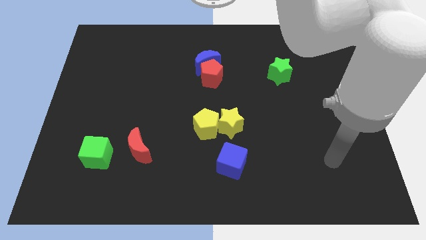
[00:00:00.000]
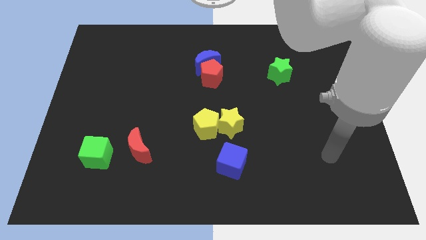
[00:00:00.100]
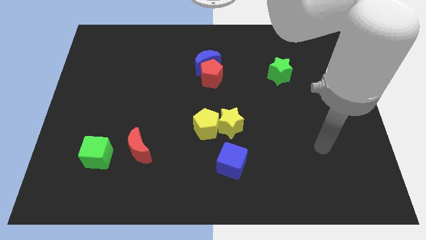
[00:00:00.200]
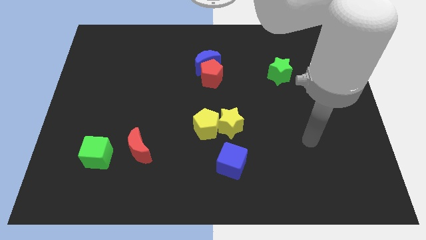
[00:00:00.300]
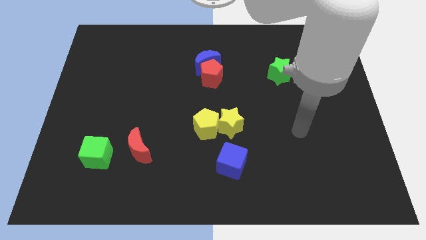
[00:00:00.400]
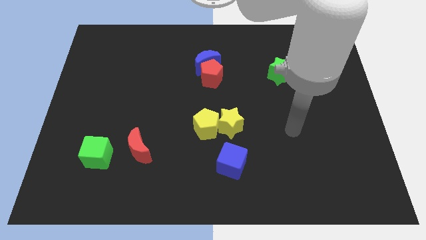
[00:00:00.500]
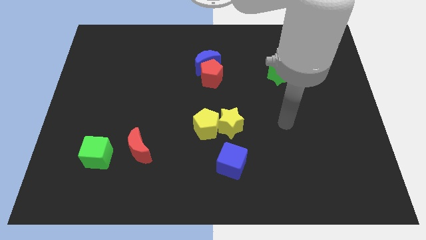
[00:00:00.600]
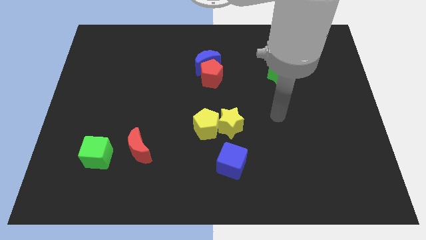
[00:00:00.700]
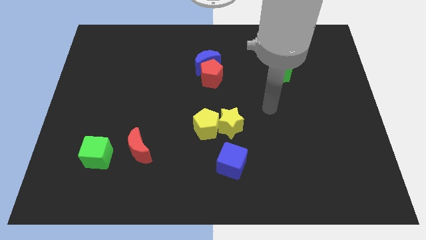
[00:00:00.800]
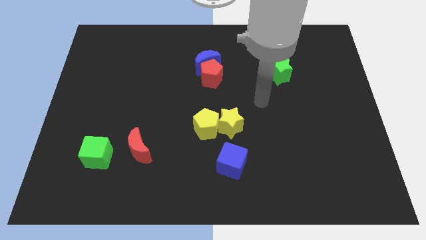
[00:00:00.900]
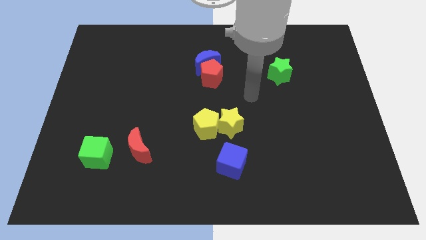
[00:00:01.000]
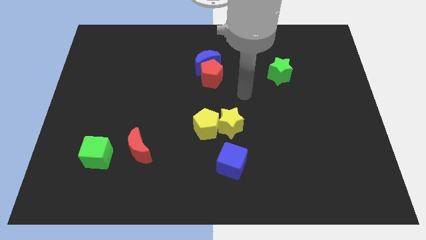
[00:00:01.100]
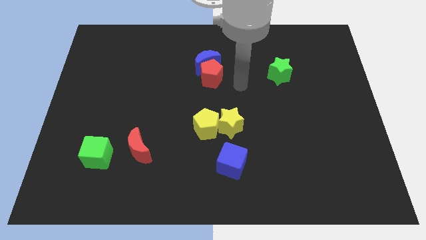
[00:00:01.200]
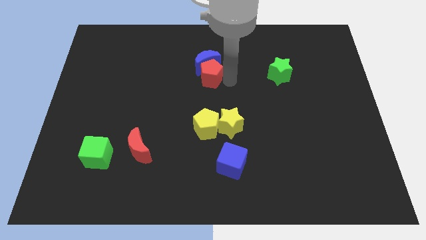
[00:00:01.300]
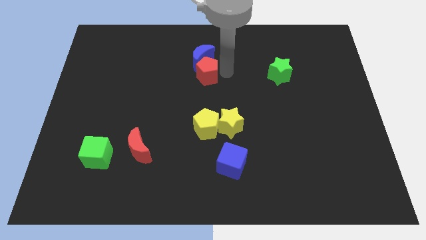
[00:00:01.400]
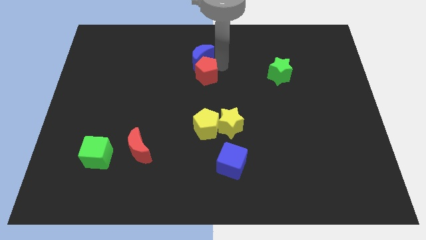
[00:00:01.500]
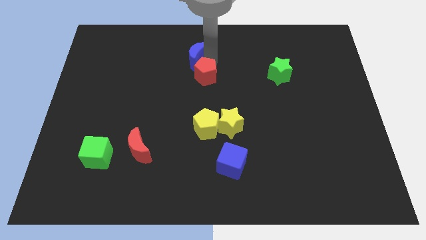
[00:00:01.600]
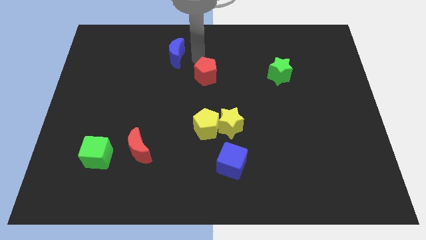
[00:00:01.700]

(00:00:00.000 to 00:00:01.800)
separate the red pentagon from the blue moon

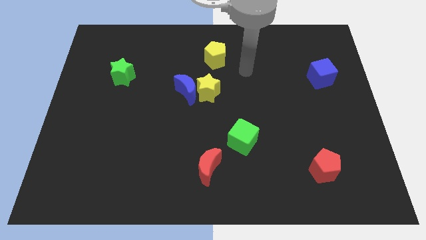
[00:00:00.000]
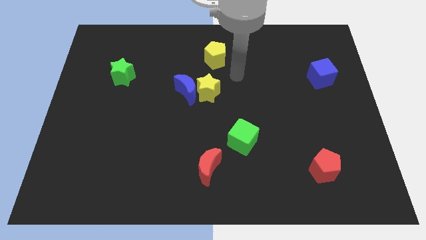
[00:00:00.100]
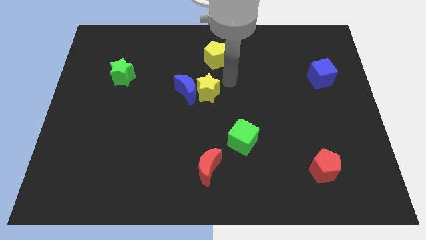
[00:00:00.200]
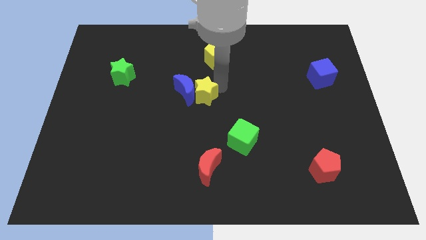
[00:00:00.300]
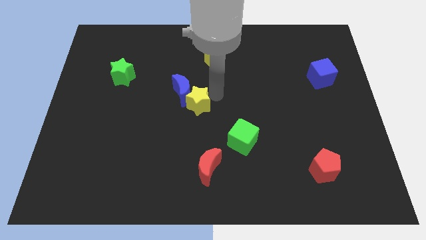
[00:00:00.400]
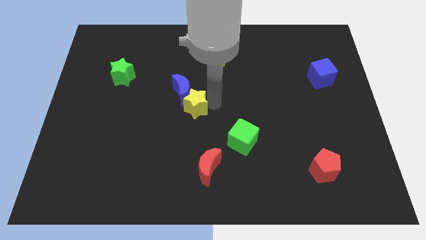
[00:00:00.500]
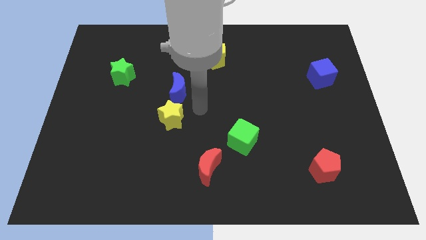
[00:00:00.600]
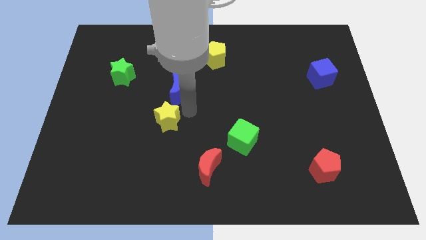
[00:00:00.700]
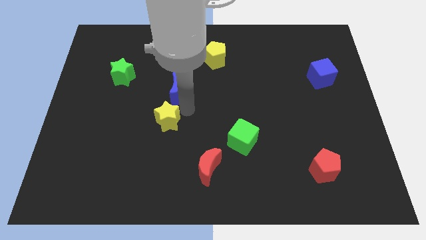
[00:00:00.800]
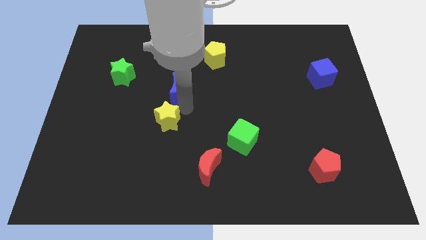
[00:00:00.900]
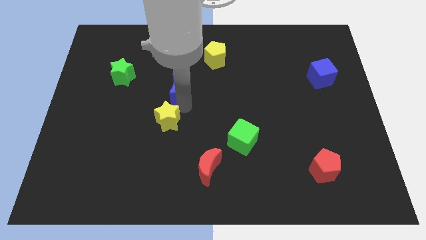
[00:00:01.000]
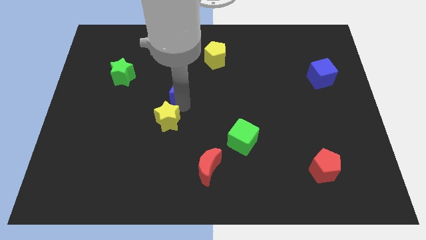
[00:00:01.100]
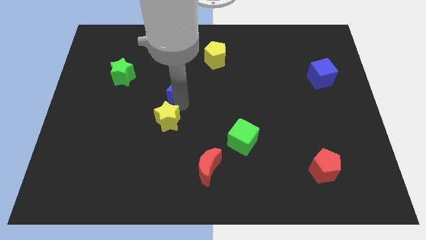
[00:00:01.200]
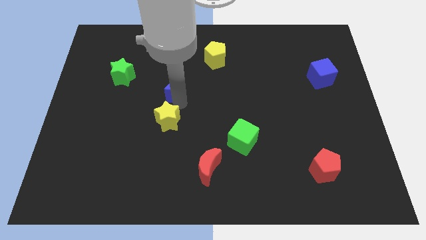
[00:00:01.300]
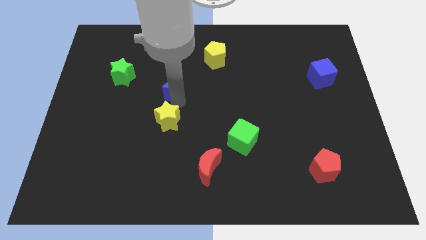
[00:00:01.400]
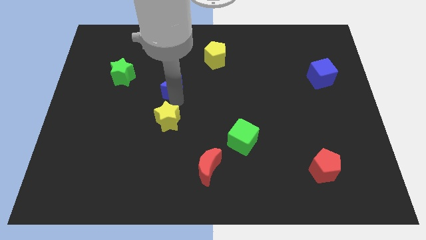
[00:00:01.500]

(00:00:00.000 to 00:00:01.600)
move the blue moon away from the yellow star

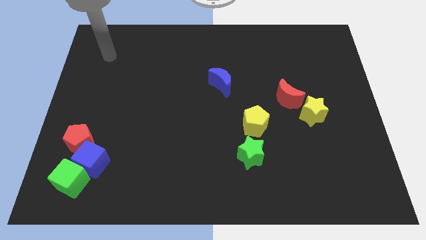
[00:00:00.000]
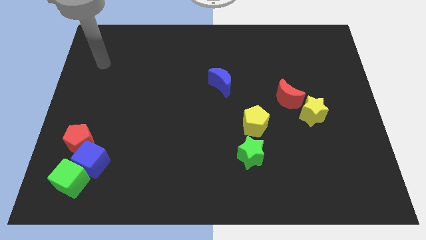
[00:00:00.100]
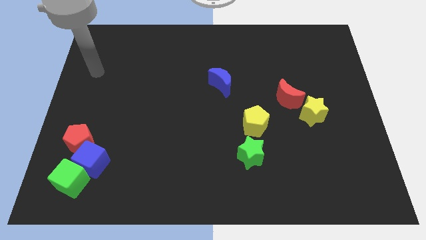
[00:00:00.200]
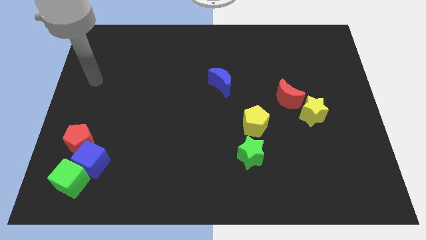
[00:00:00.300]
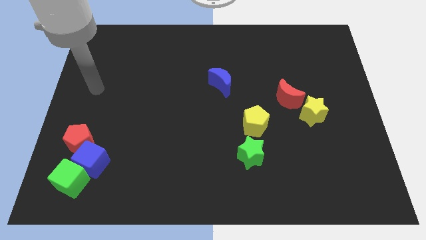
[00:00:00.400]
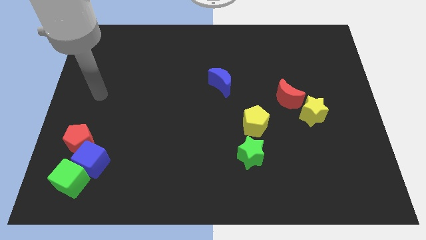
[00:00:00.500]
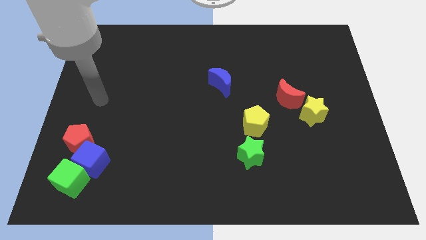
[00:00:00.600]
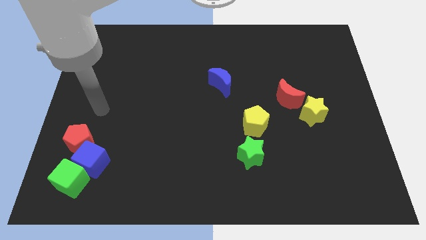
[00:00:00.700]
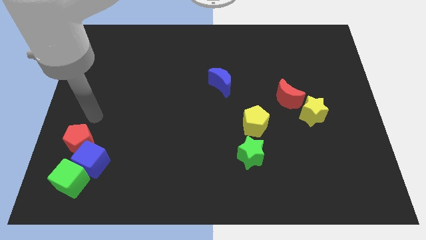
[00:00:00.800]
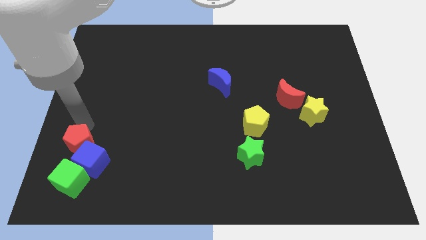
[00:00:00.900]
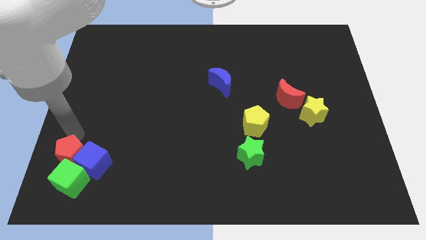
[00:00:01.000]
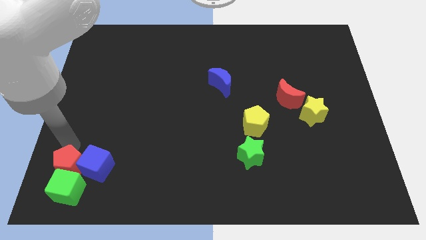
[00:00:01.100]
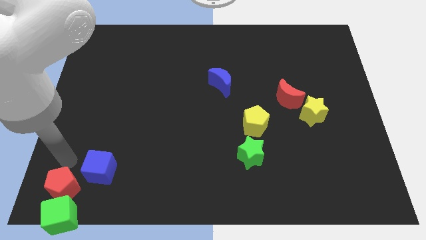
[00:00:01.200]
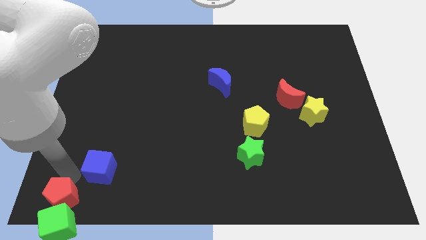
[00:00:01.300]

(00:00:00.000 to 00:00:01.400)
separate the blue cube from the green cube and red pentagon

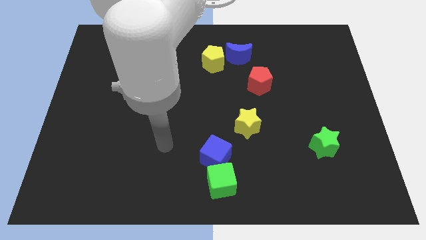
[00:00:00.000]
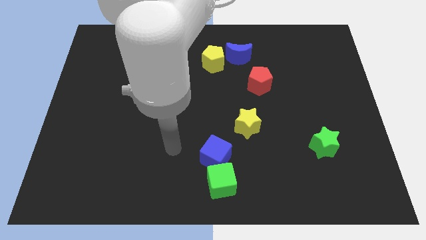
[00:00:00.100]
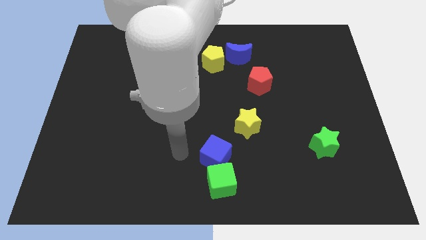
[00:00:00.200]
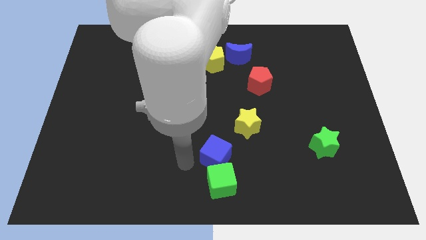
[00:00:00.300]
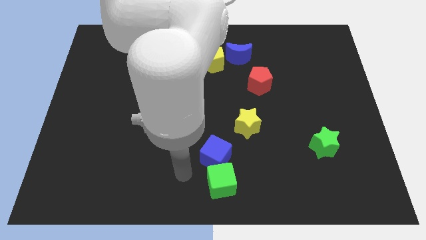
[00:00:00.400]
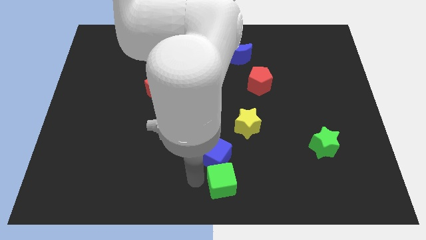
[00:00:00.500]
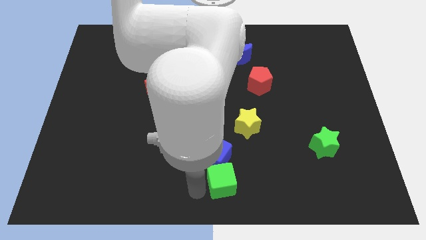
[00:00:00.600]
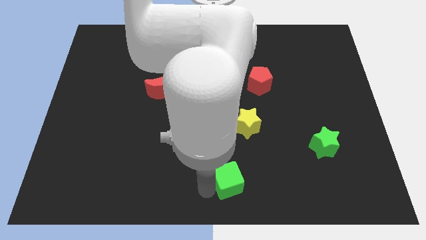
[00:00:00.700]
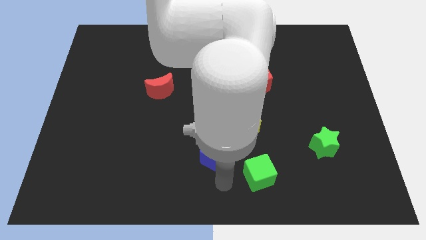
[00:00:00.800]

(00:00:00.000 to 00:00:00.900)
pull the blue cube apart from the green cube

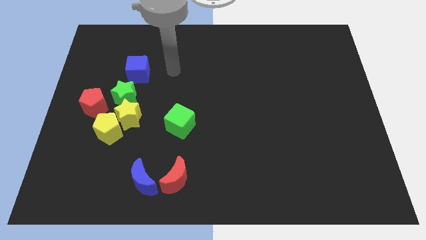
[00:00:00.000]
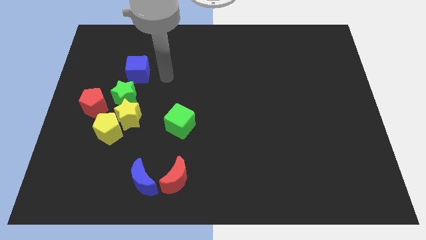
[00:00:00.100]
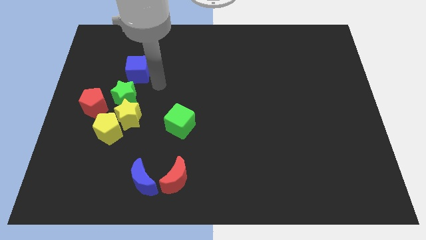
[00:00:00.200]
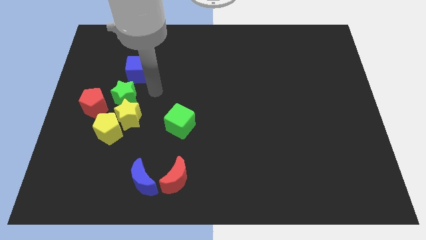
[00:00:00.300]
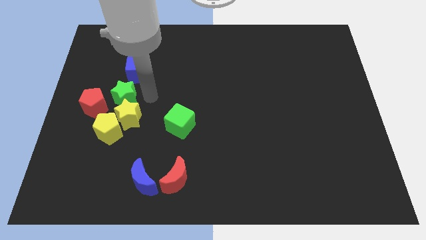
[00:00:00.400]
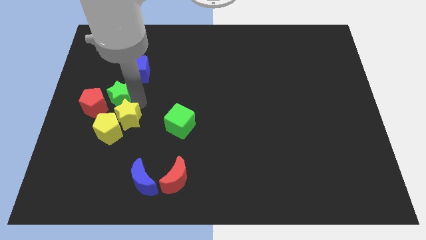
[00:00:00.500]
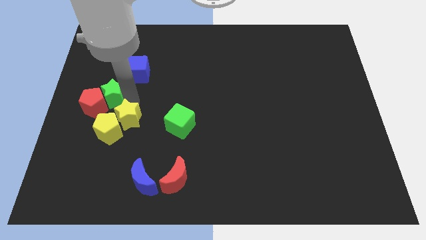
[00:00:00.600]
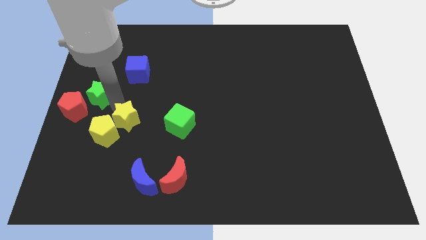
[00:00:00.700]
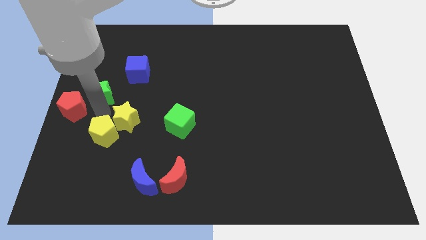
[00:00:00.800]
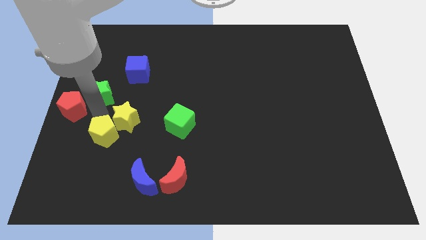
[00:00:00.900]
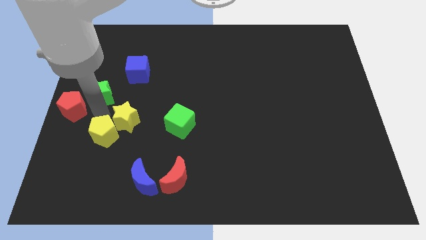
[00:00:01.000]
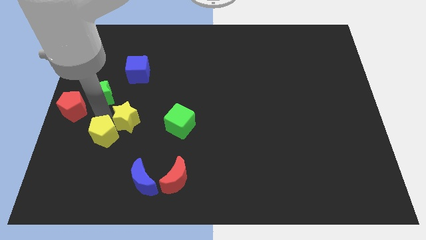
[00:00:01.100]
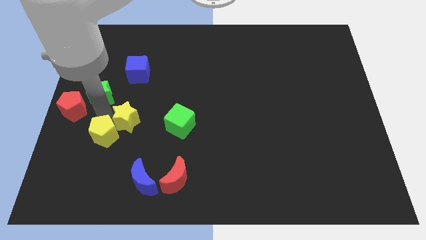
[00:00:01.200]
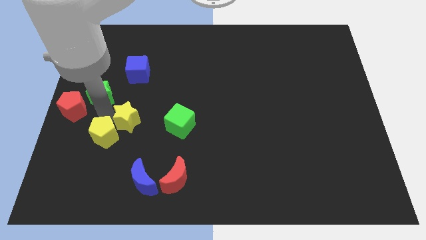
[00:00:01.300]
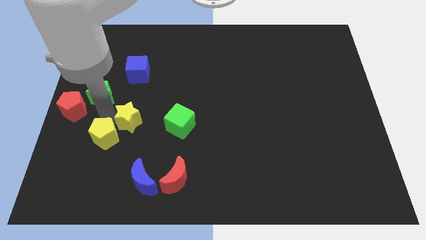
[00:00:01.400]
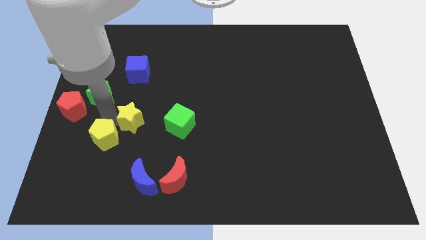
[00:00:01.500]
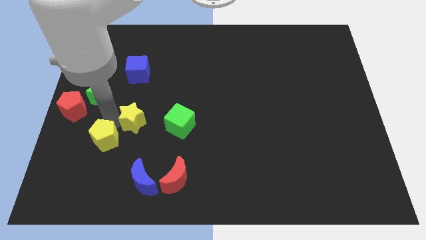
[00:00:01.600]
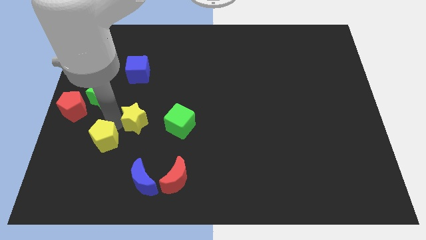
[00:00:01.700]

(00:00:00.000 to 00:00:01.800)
pull the yellow star apart from the yellow pentagon, green star, and red pentagon

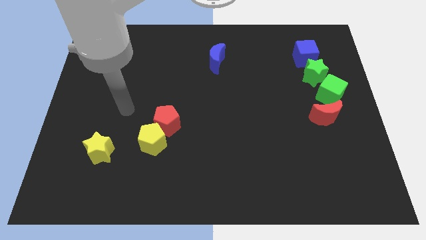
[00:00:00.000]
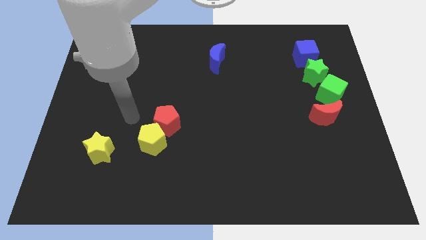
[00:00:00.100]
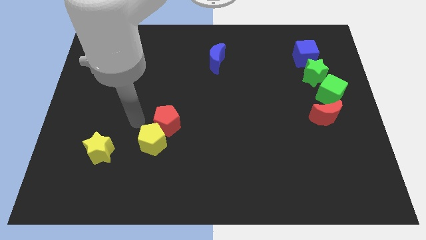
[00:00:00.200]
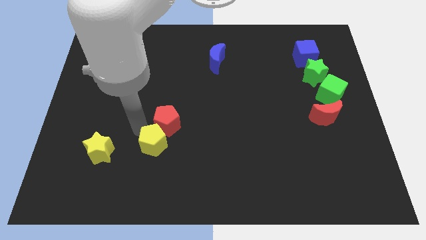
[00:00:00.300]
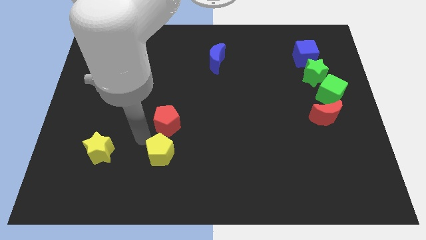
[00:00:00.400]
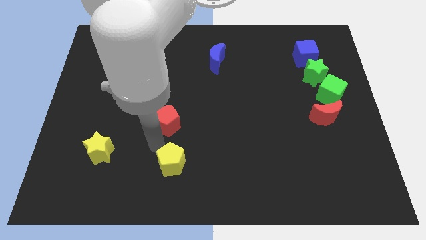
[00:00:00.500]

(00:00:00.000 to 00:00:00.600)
pull the red pentagon apart from the yellow pentagon

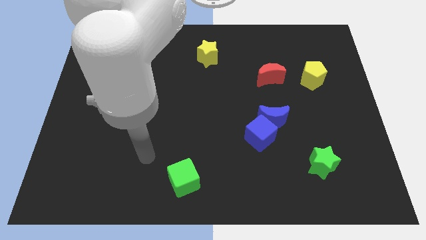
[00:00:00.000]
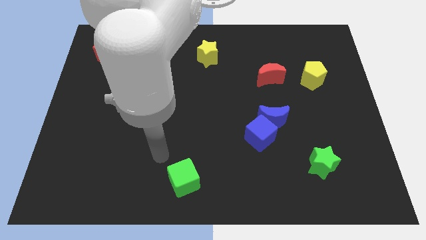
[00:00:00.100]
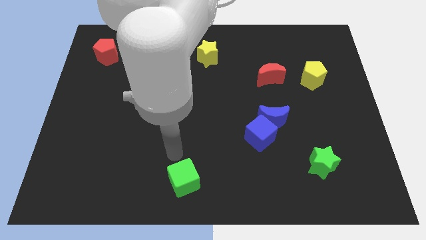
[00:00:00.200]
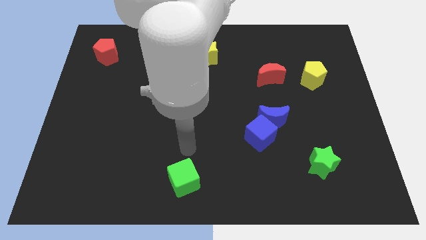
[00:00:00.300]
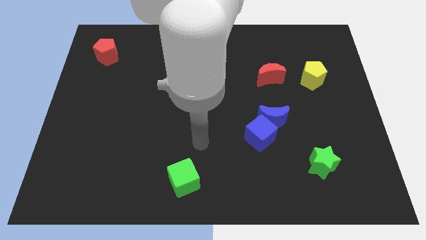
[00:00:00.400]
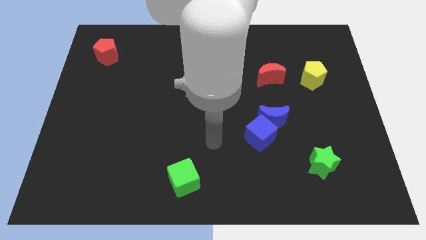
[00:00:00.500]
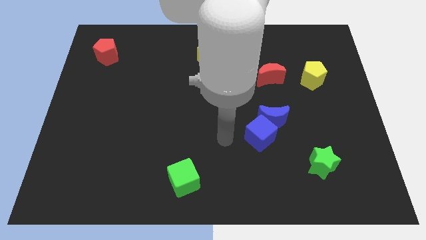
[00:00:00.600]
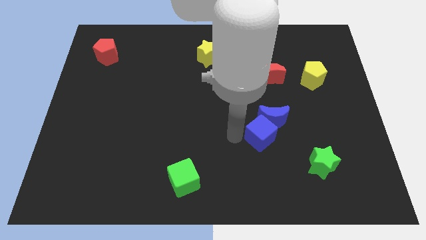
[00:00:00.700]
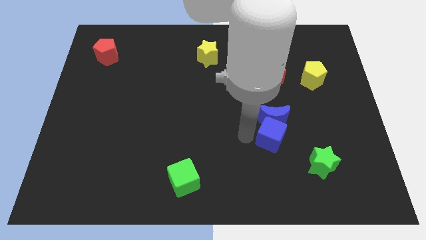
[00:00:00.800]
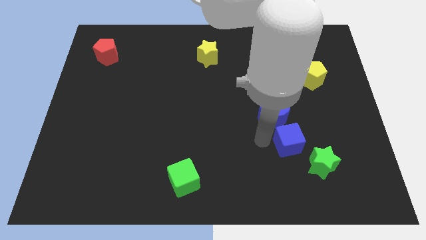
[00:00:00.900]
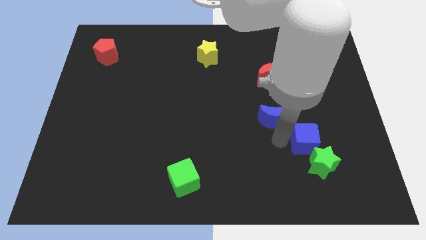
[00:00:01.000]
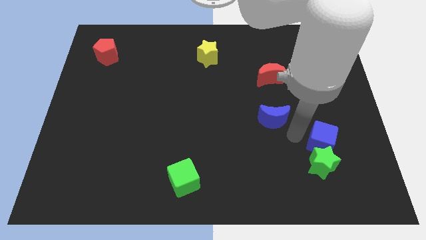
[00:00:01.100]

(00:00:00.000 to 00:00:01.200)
move the blue moon away from the blue cube
